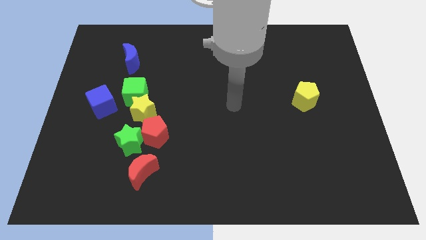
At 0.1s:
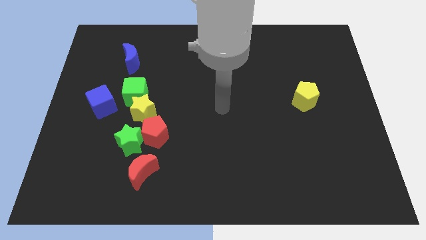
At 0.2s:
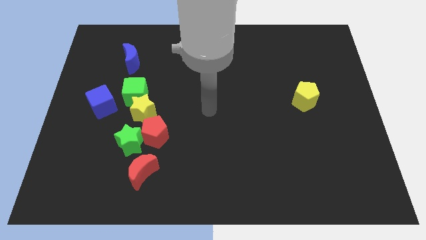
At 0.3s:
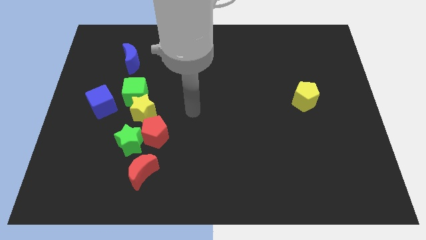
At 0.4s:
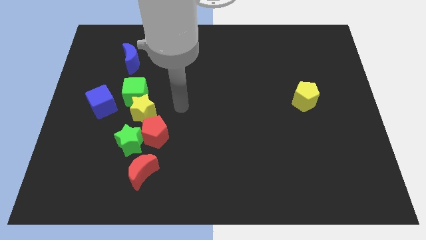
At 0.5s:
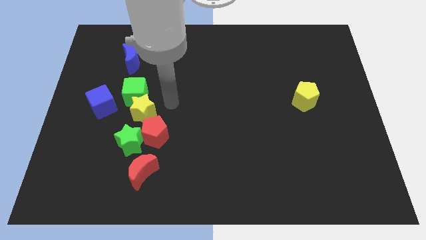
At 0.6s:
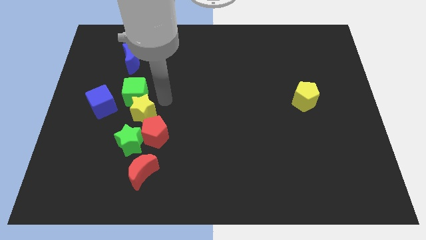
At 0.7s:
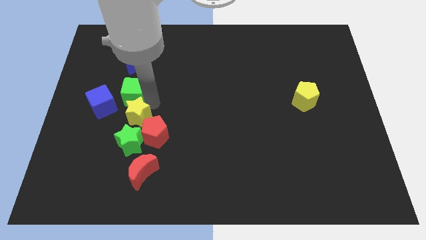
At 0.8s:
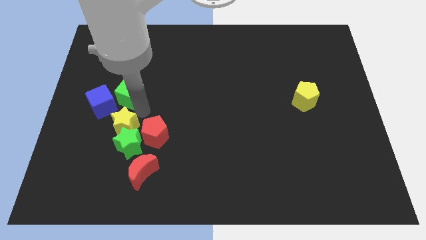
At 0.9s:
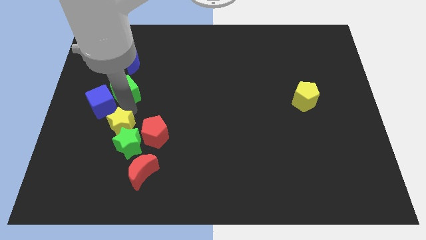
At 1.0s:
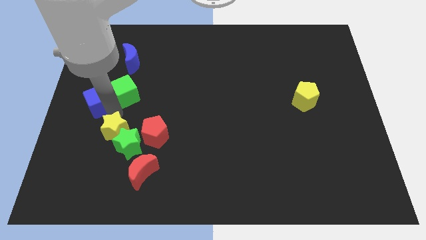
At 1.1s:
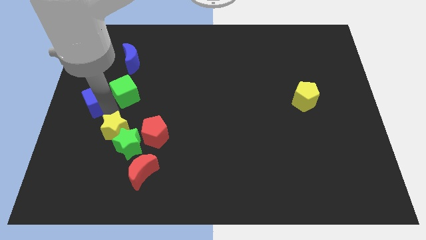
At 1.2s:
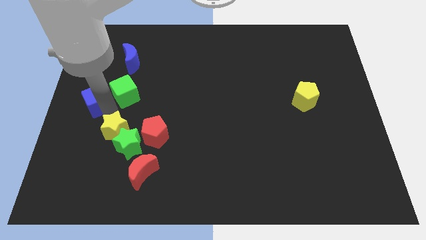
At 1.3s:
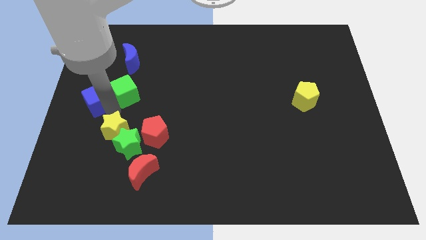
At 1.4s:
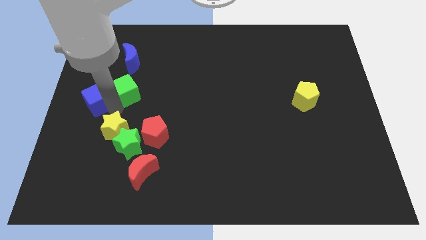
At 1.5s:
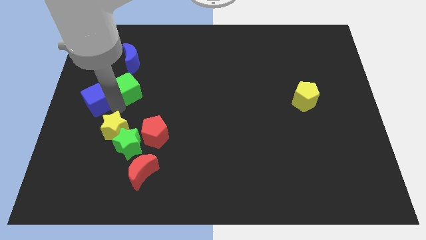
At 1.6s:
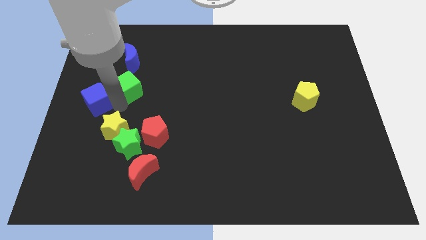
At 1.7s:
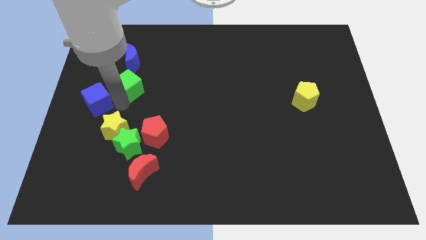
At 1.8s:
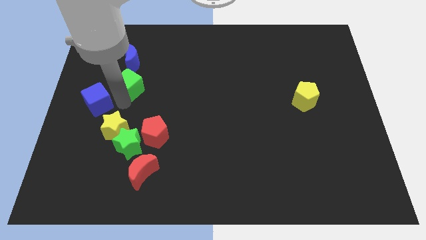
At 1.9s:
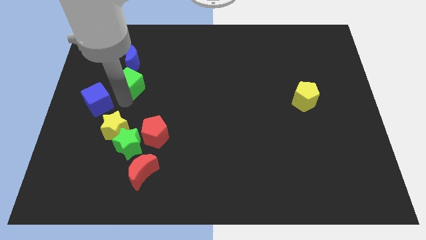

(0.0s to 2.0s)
move the green cube away from the yellow star and blue cube

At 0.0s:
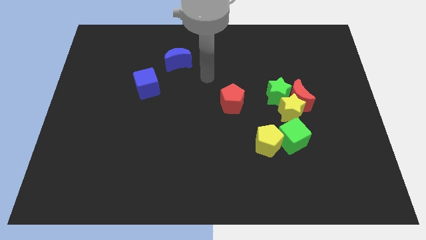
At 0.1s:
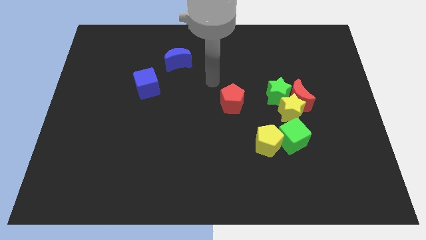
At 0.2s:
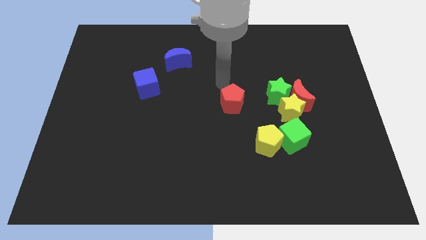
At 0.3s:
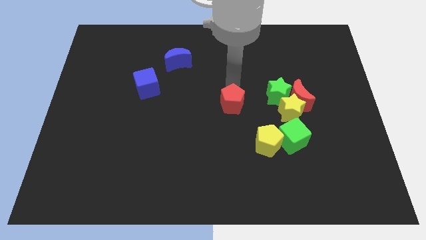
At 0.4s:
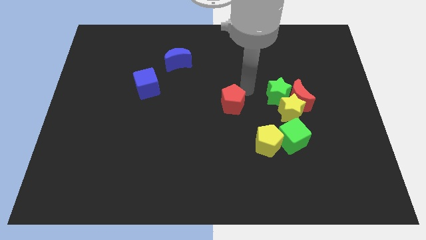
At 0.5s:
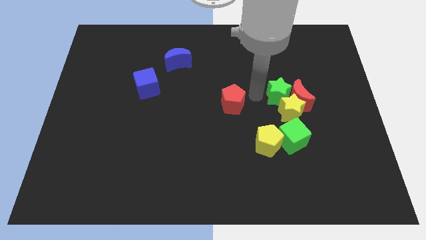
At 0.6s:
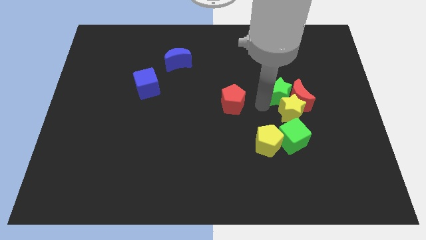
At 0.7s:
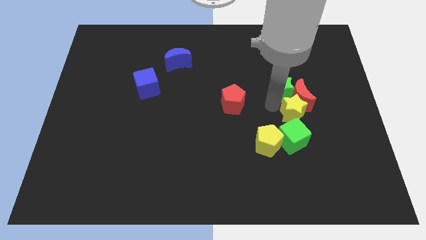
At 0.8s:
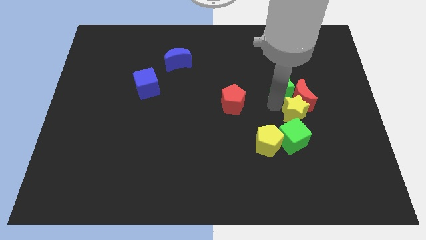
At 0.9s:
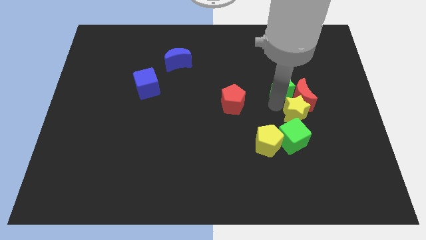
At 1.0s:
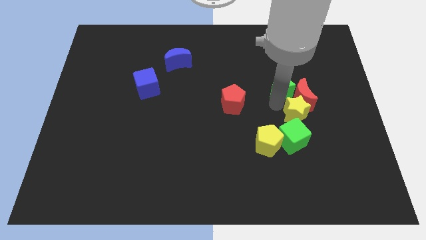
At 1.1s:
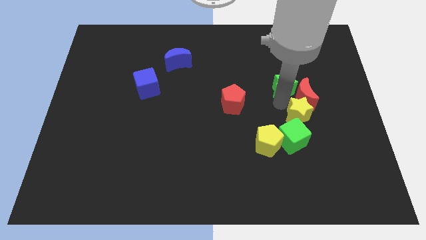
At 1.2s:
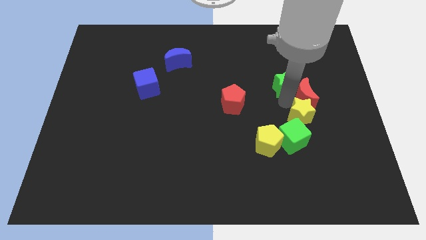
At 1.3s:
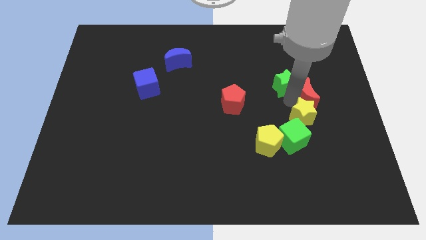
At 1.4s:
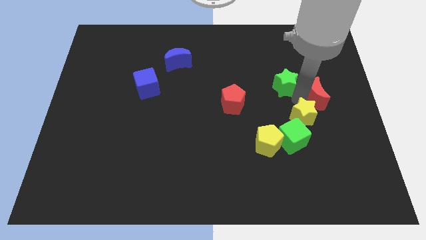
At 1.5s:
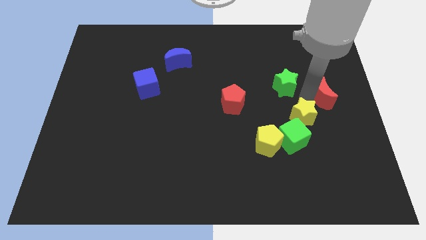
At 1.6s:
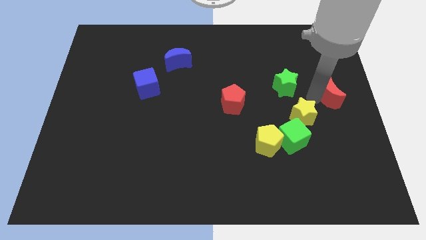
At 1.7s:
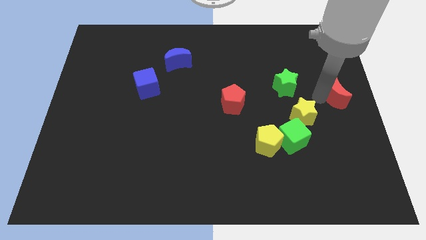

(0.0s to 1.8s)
move the red moon away from the yellow star and green star

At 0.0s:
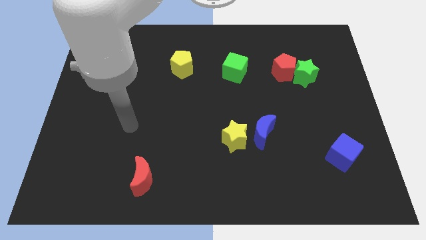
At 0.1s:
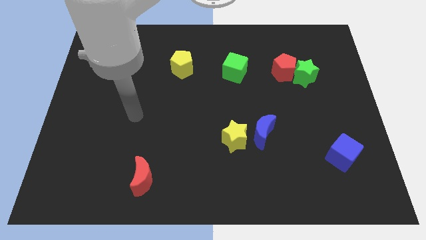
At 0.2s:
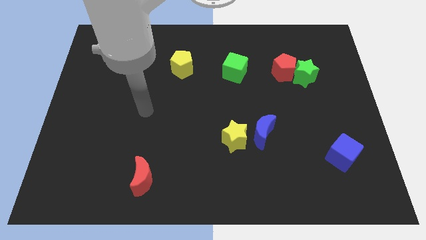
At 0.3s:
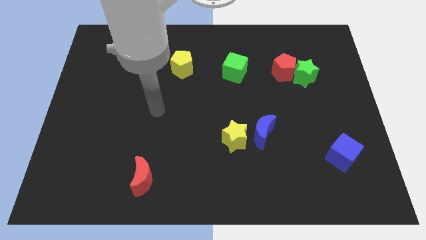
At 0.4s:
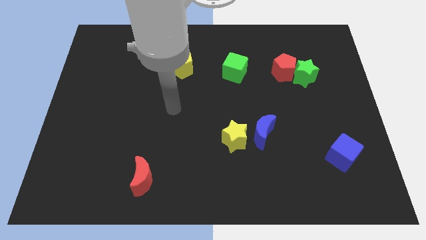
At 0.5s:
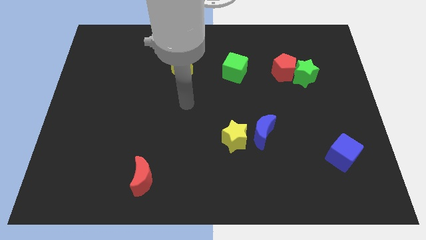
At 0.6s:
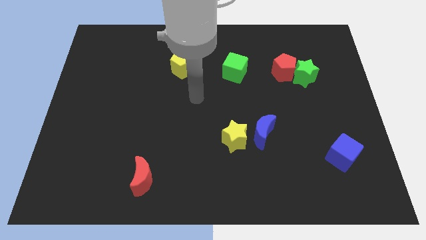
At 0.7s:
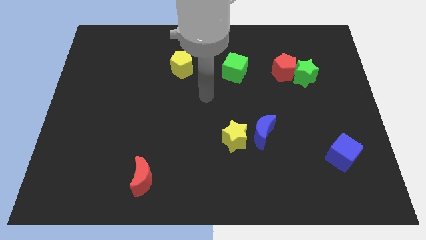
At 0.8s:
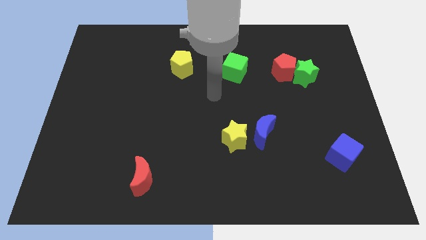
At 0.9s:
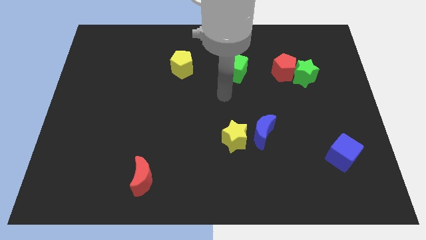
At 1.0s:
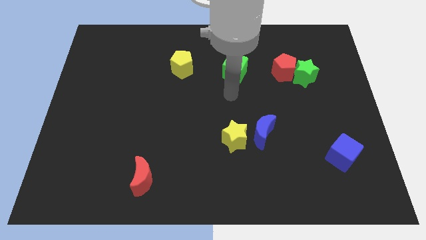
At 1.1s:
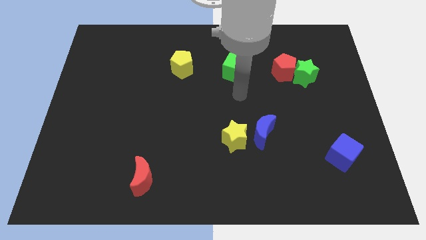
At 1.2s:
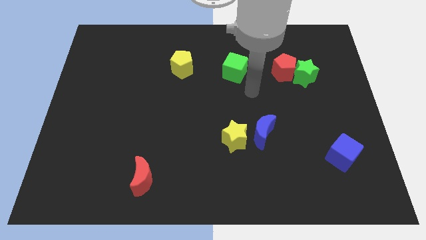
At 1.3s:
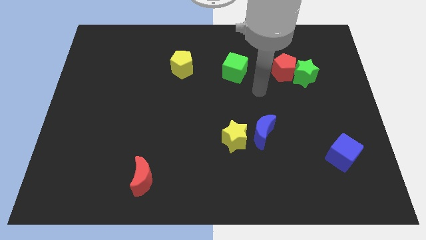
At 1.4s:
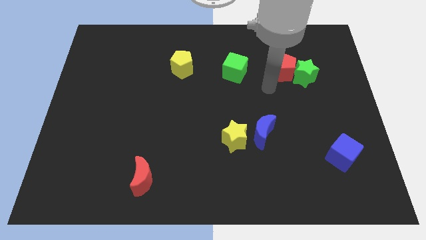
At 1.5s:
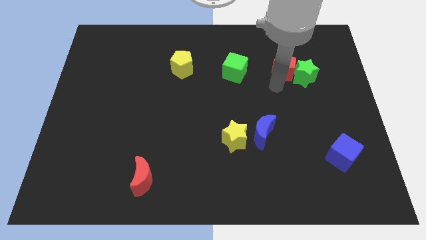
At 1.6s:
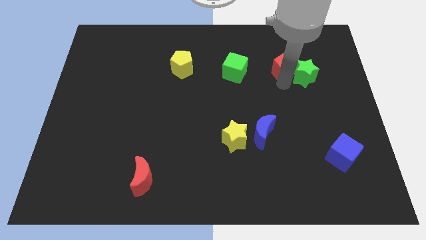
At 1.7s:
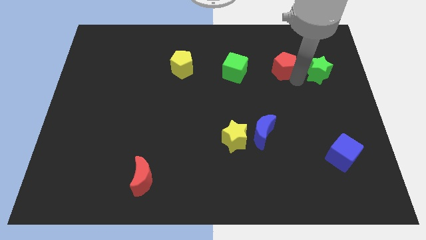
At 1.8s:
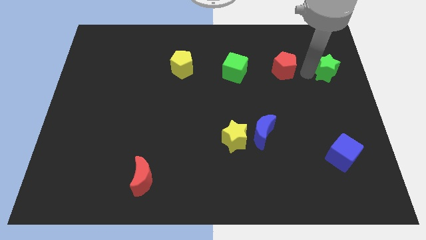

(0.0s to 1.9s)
separate the red pentagon from the green star

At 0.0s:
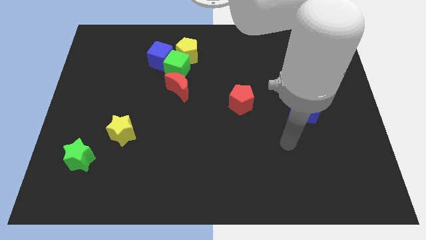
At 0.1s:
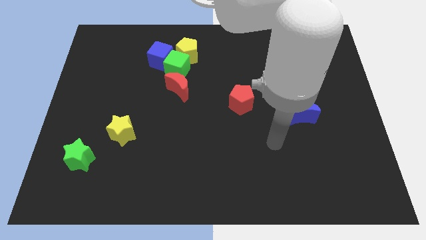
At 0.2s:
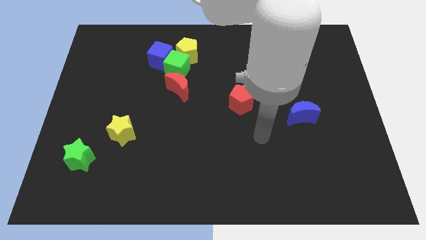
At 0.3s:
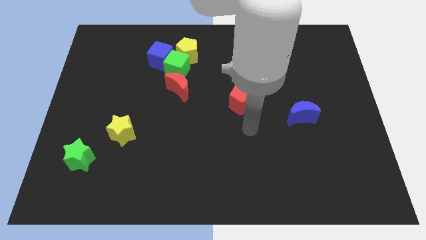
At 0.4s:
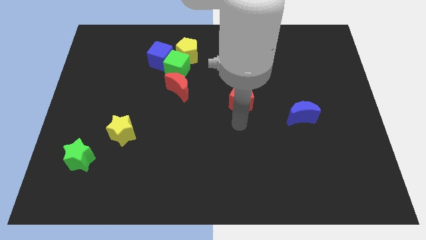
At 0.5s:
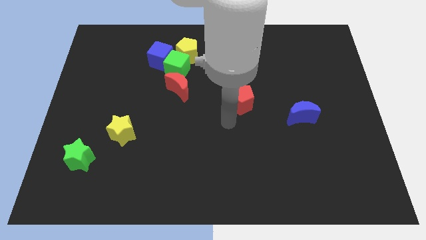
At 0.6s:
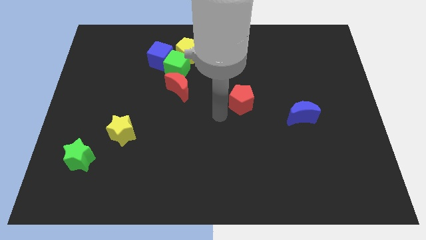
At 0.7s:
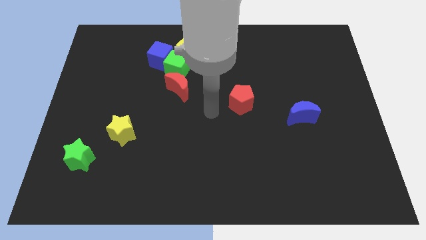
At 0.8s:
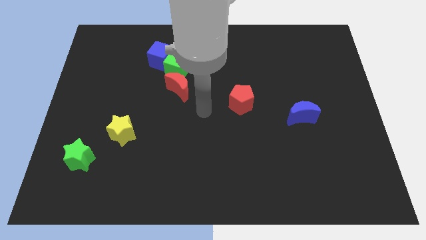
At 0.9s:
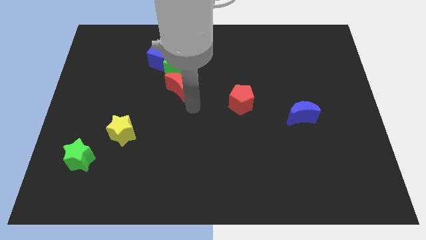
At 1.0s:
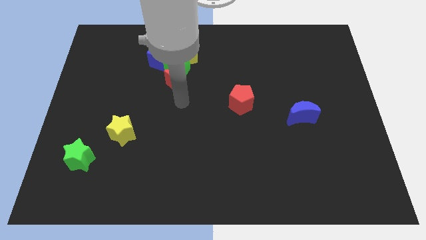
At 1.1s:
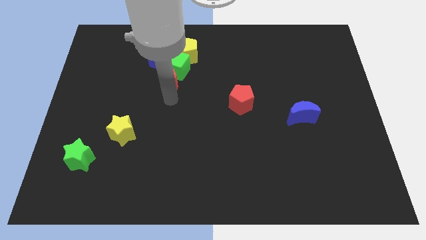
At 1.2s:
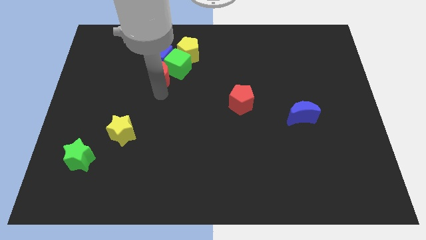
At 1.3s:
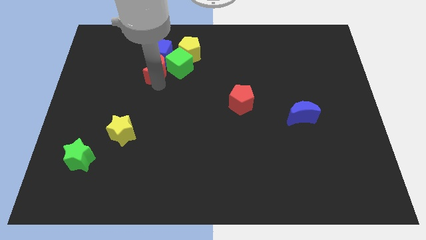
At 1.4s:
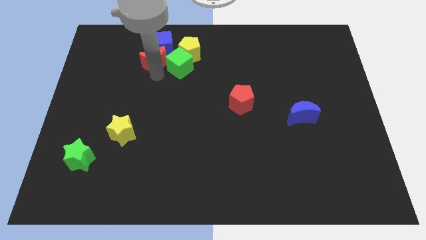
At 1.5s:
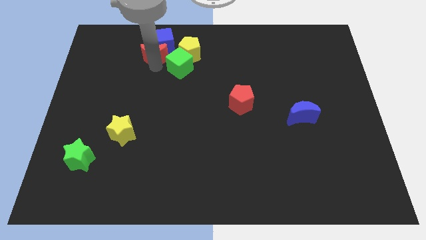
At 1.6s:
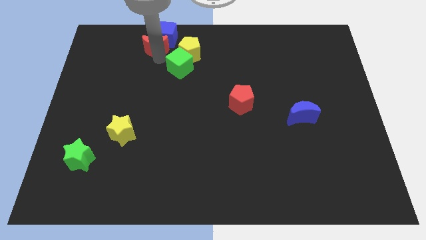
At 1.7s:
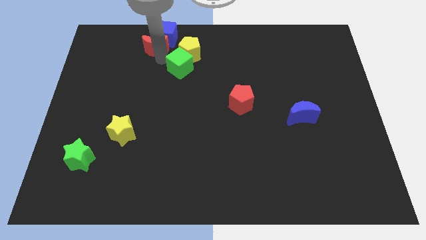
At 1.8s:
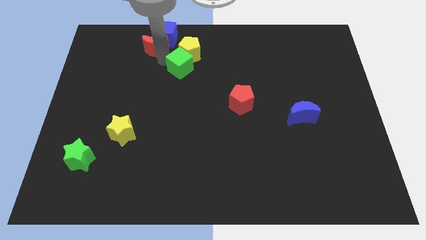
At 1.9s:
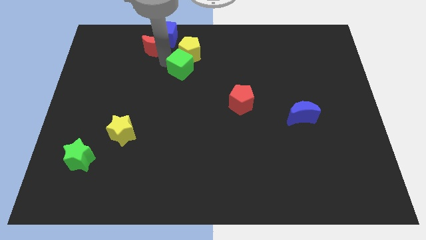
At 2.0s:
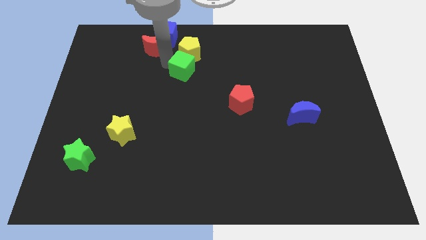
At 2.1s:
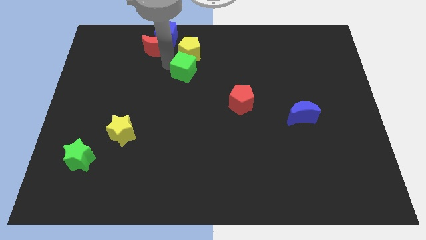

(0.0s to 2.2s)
pull the green cube apart from the group

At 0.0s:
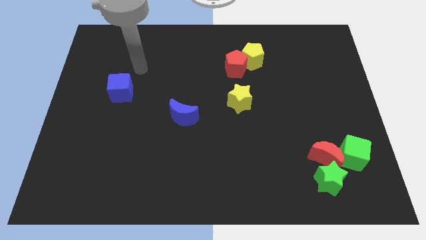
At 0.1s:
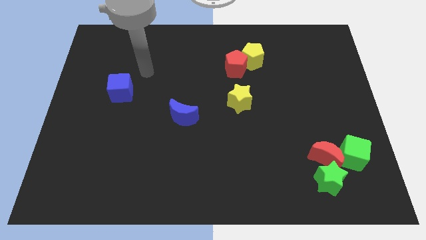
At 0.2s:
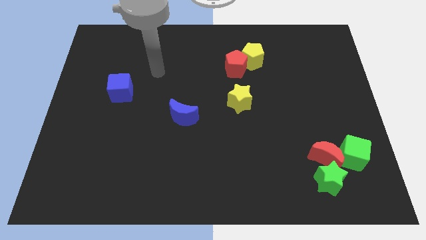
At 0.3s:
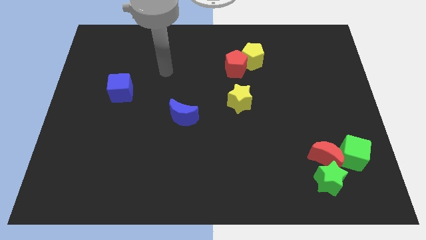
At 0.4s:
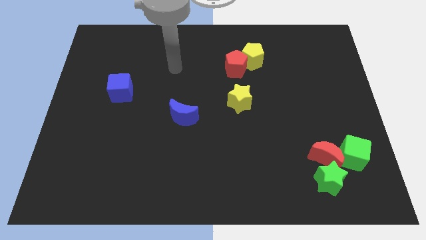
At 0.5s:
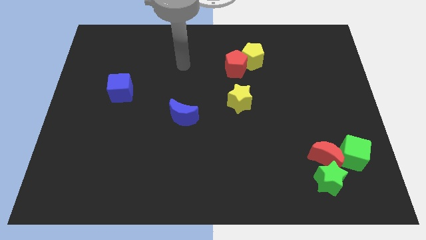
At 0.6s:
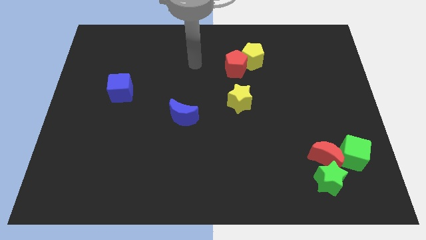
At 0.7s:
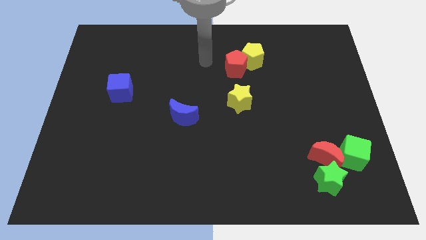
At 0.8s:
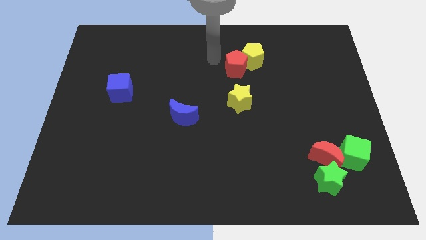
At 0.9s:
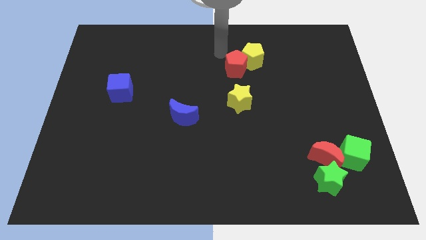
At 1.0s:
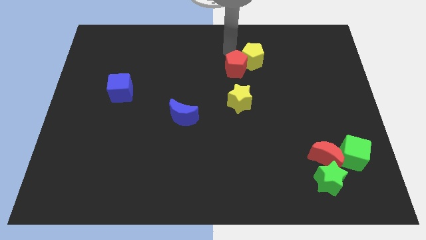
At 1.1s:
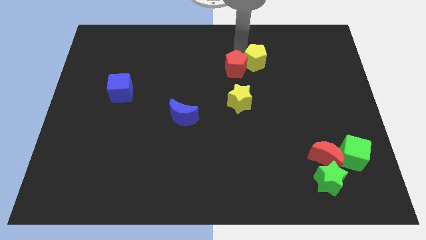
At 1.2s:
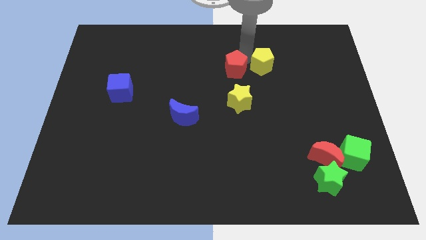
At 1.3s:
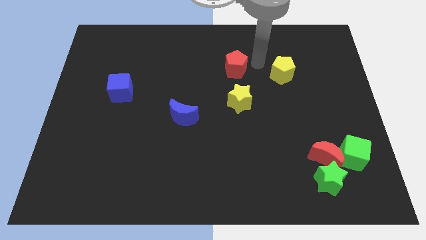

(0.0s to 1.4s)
pull the red pentagon apart from the yellow pentagon
